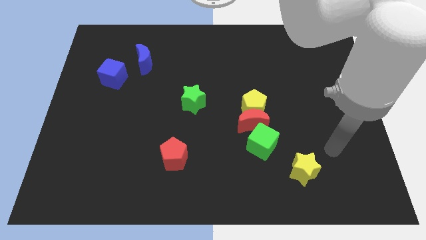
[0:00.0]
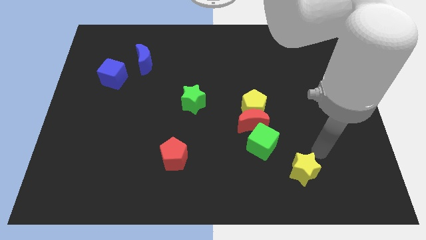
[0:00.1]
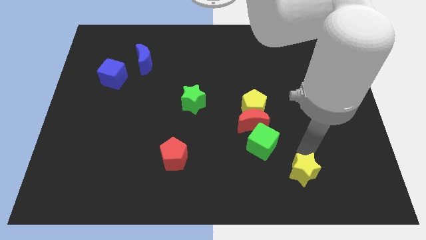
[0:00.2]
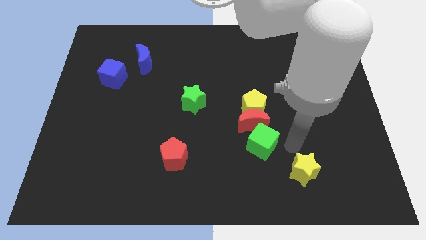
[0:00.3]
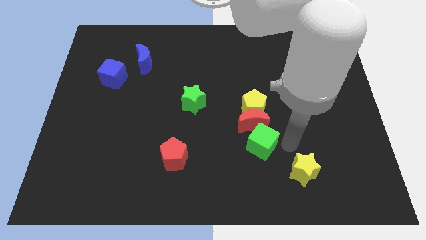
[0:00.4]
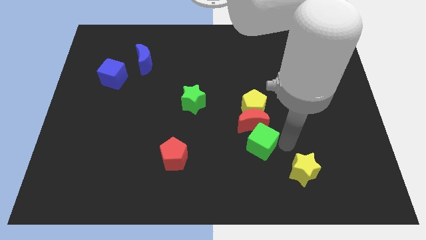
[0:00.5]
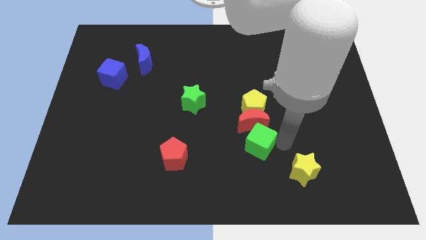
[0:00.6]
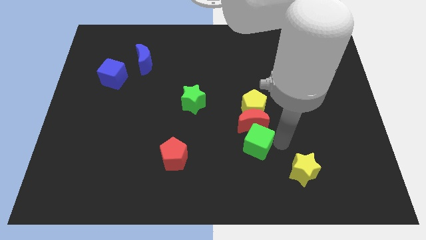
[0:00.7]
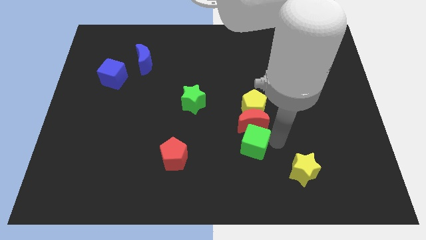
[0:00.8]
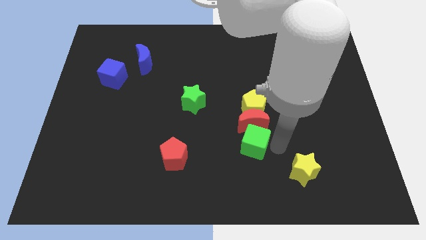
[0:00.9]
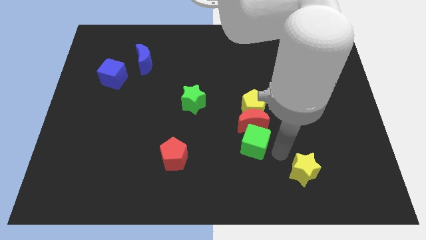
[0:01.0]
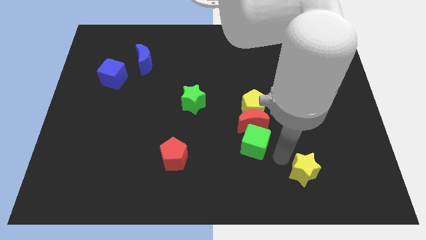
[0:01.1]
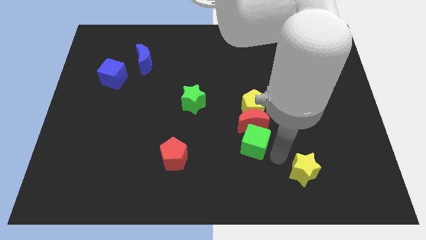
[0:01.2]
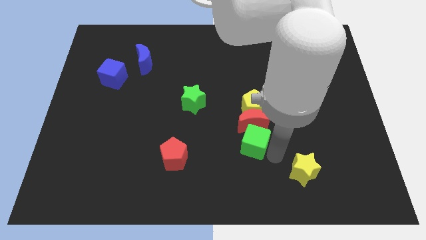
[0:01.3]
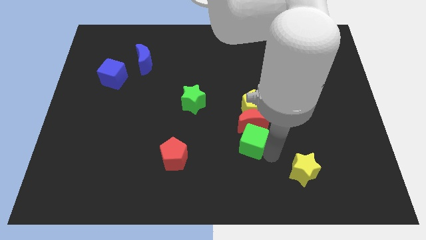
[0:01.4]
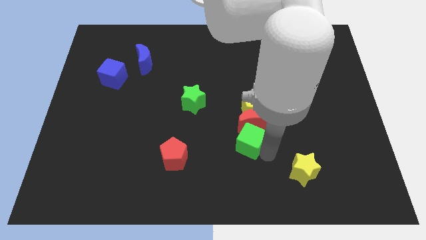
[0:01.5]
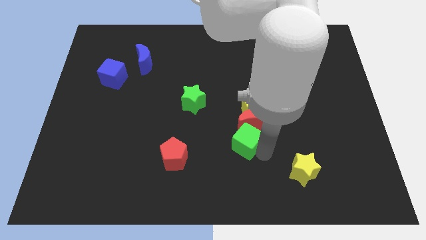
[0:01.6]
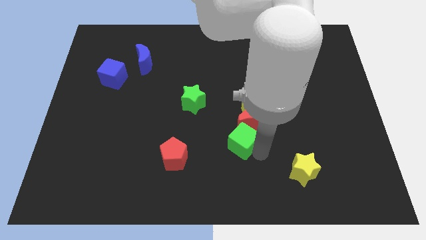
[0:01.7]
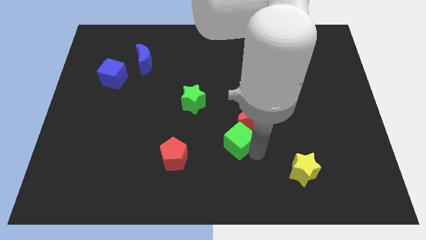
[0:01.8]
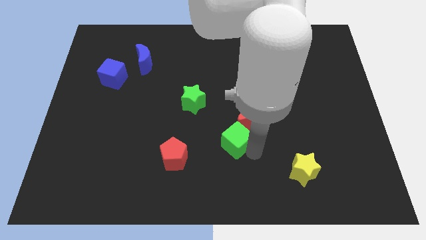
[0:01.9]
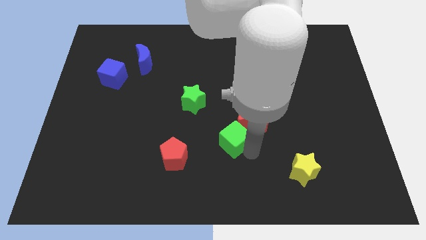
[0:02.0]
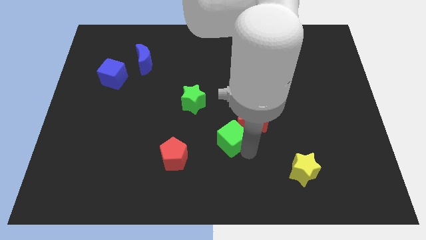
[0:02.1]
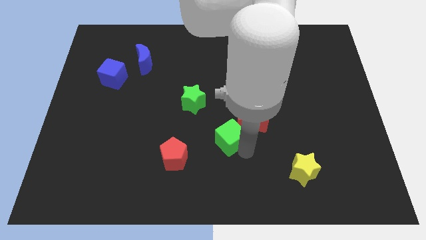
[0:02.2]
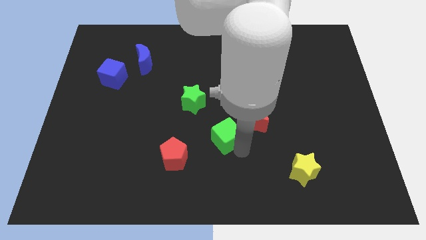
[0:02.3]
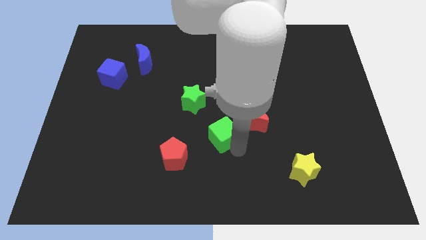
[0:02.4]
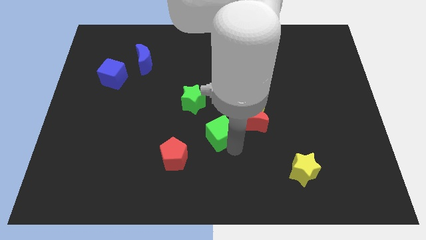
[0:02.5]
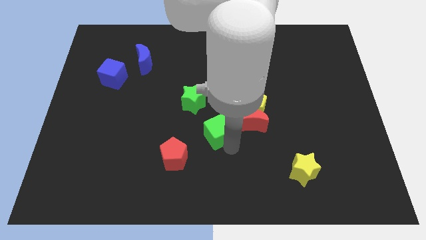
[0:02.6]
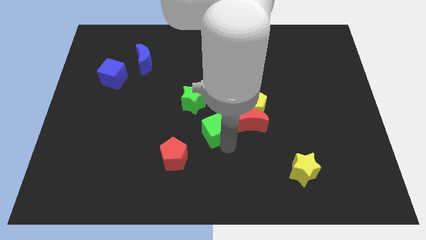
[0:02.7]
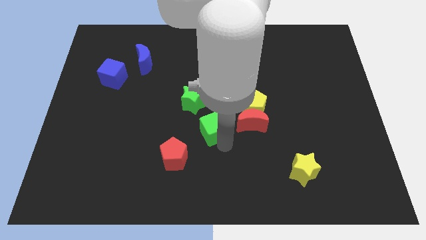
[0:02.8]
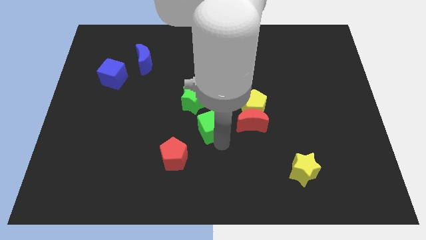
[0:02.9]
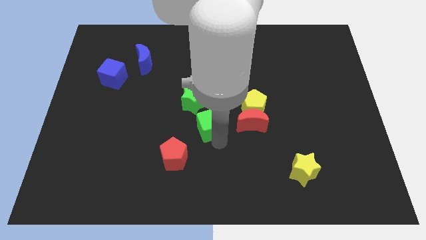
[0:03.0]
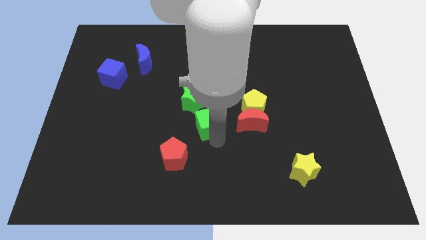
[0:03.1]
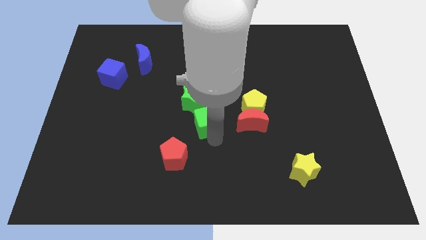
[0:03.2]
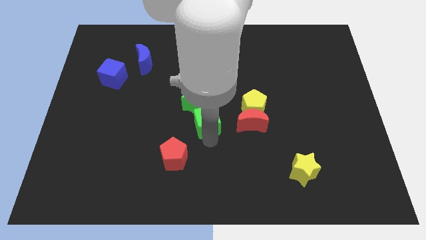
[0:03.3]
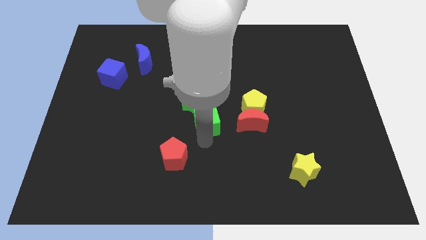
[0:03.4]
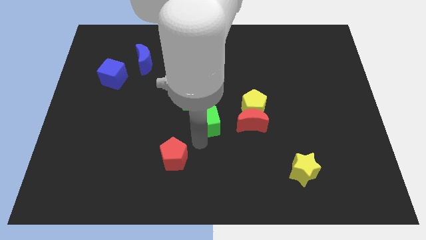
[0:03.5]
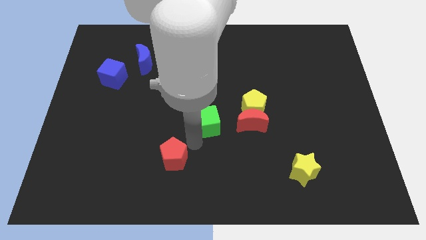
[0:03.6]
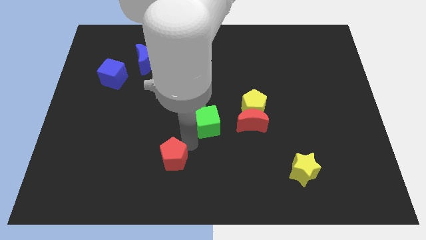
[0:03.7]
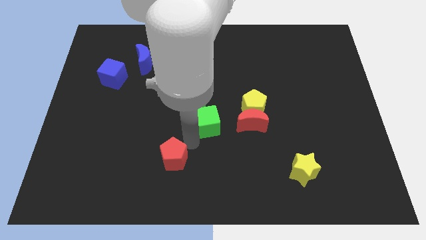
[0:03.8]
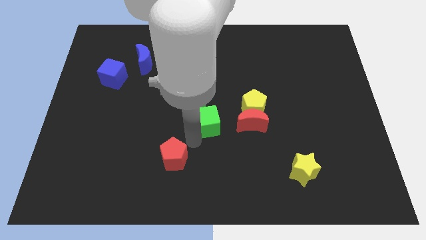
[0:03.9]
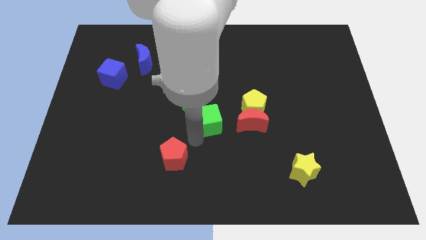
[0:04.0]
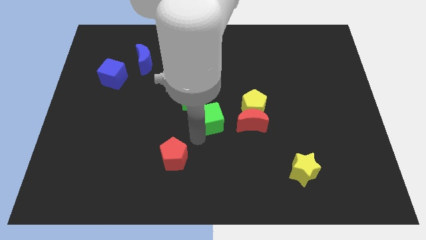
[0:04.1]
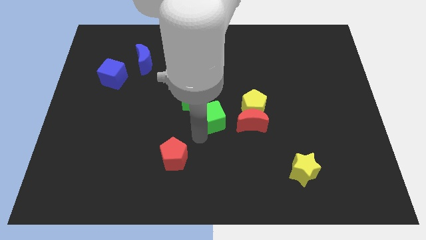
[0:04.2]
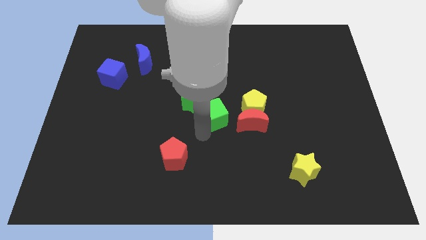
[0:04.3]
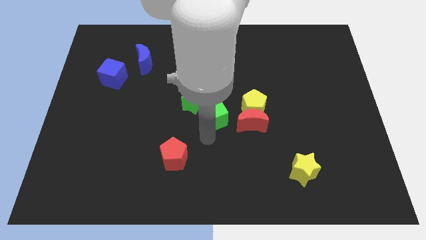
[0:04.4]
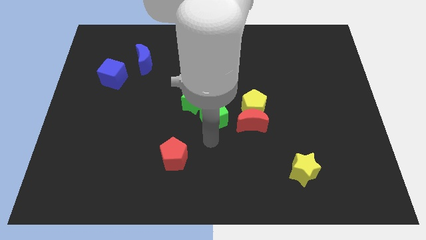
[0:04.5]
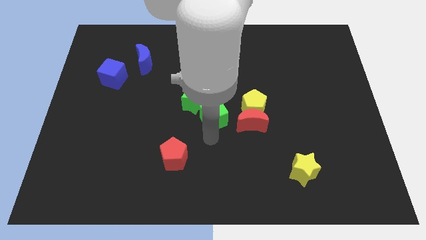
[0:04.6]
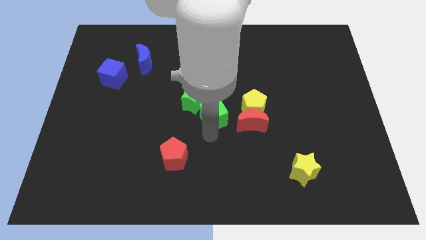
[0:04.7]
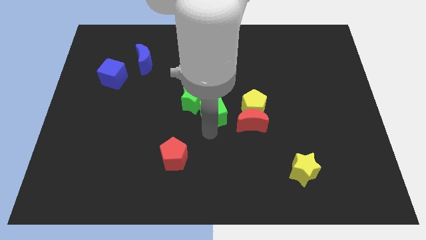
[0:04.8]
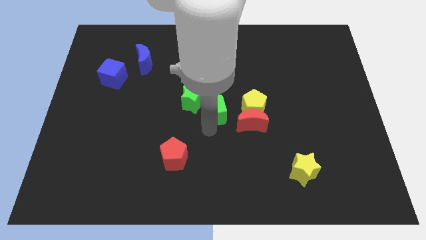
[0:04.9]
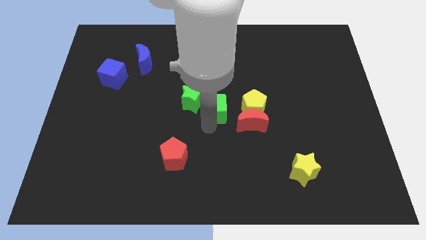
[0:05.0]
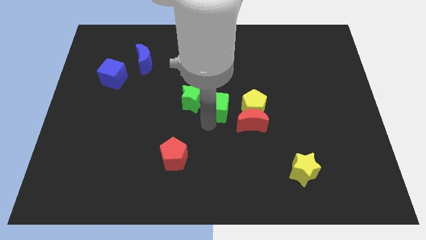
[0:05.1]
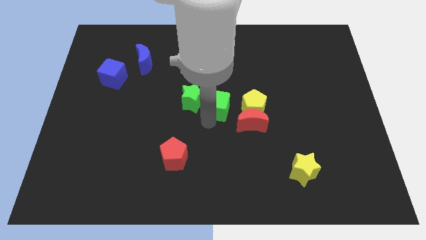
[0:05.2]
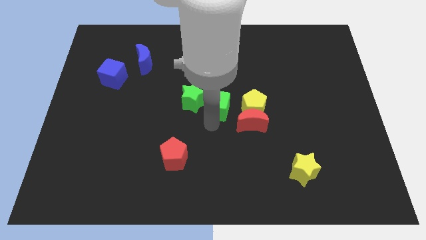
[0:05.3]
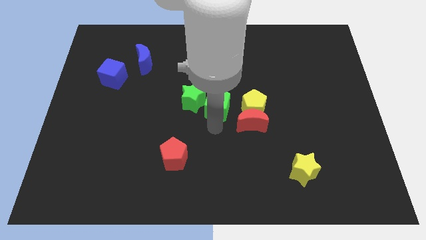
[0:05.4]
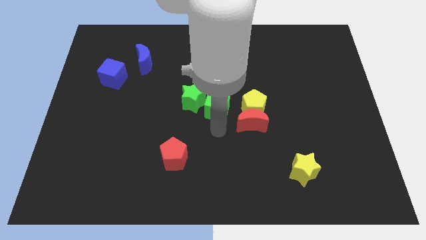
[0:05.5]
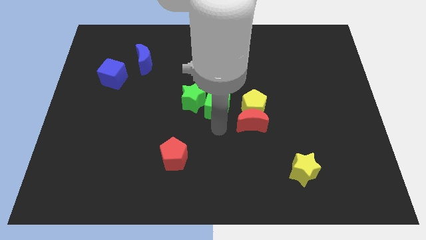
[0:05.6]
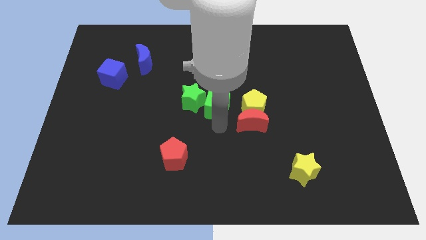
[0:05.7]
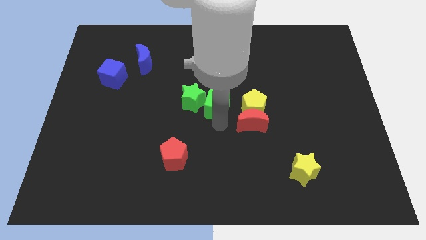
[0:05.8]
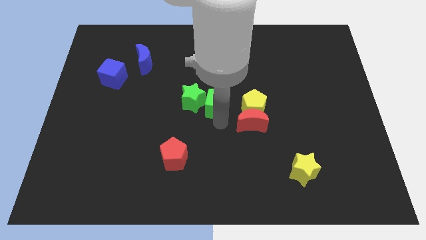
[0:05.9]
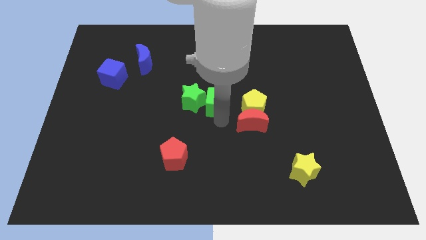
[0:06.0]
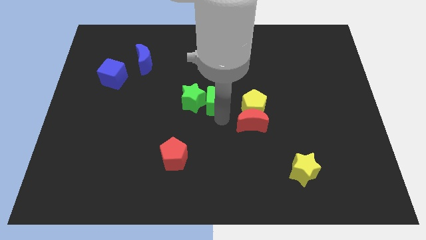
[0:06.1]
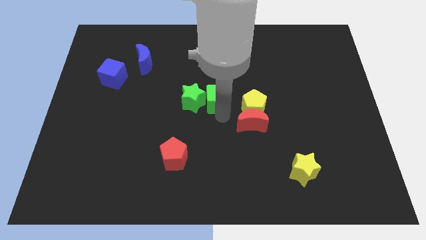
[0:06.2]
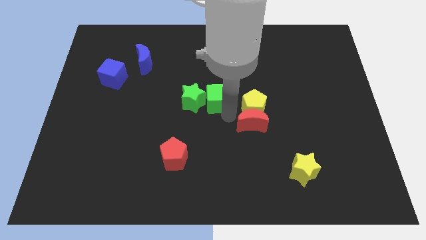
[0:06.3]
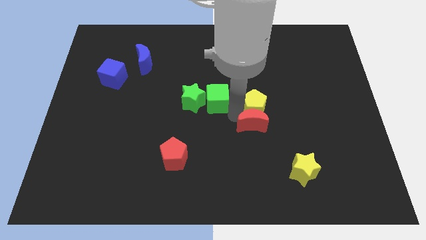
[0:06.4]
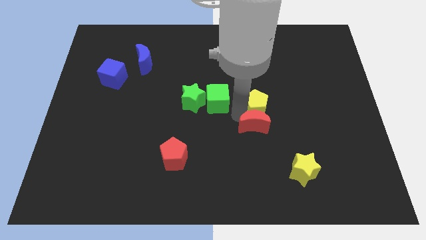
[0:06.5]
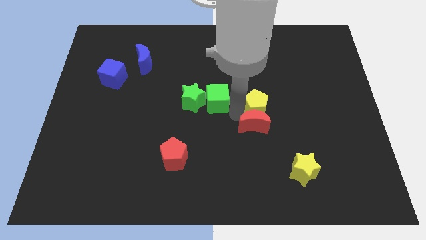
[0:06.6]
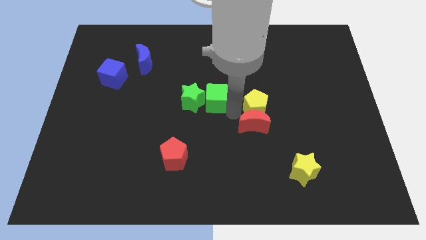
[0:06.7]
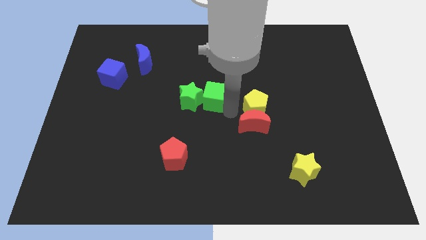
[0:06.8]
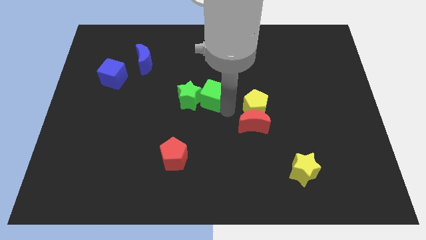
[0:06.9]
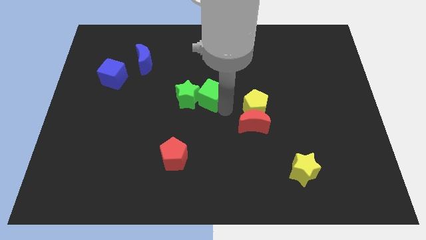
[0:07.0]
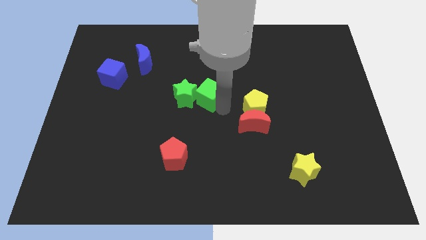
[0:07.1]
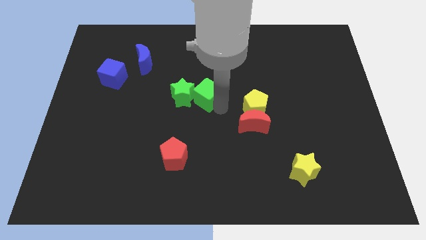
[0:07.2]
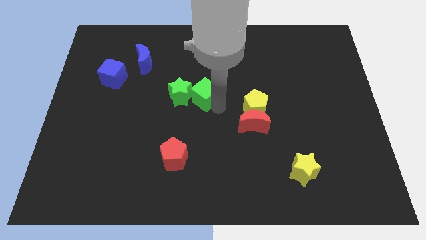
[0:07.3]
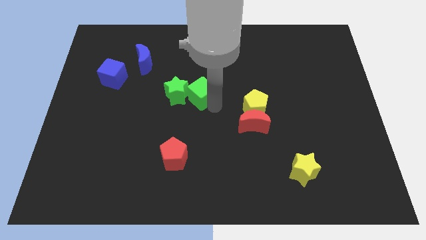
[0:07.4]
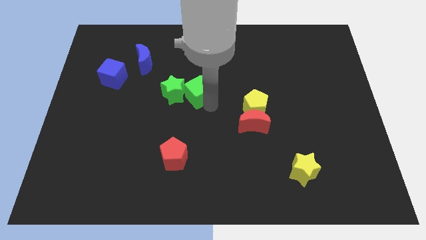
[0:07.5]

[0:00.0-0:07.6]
push the green cube up and to the left diagonally

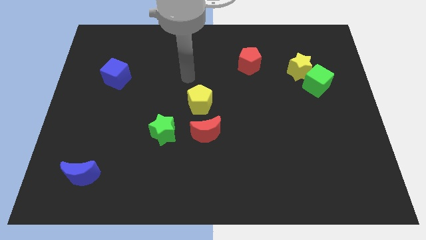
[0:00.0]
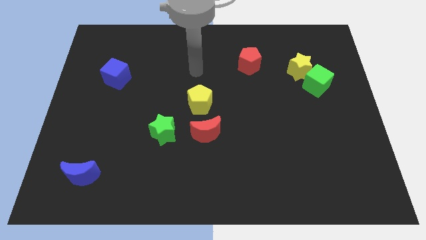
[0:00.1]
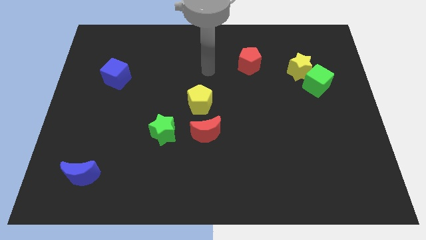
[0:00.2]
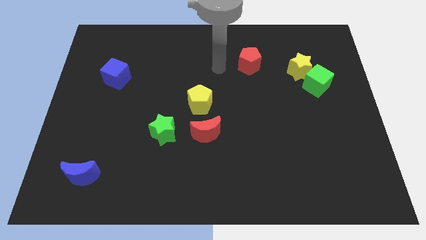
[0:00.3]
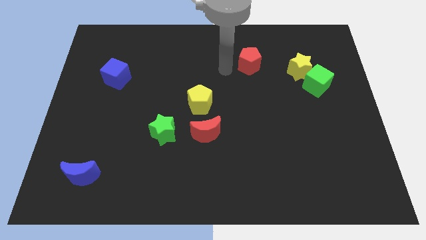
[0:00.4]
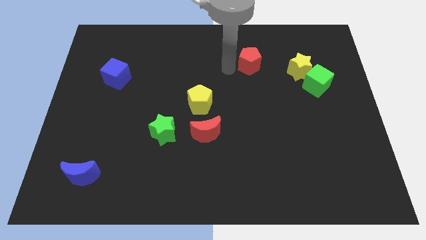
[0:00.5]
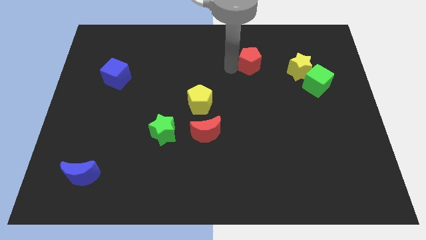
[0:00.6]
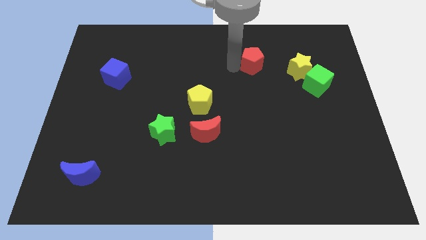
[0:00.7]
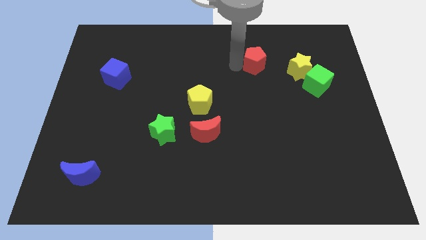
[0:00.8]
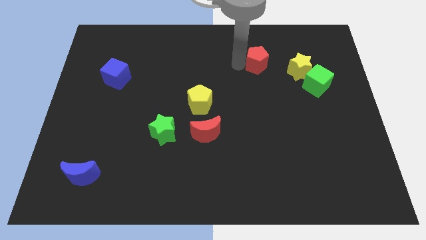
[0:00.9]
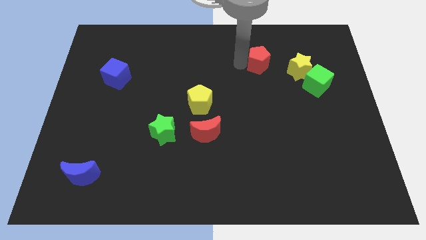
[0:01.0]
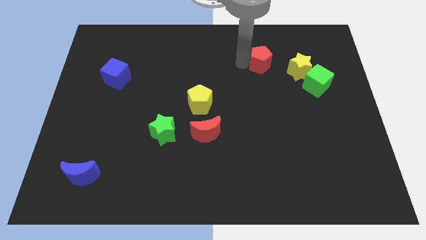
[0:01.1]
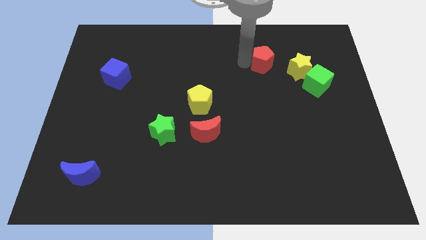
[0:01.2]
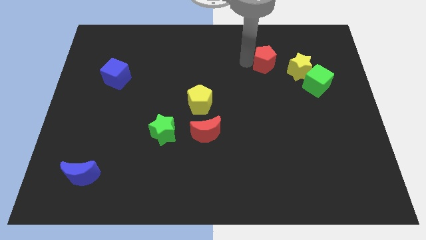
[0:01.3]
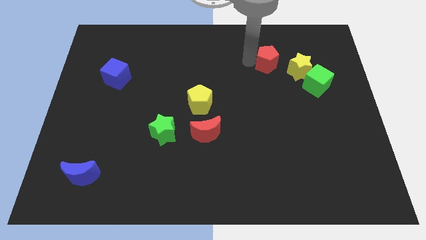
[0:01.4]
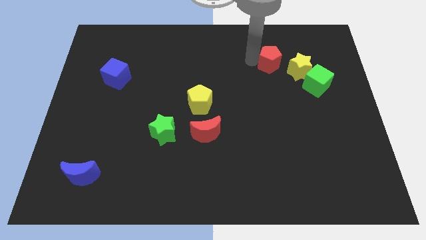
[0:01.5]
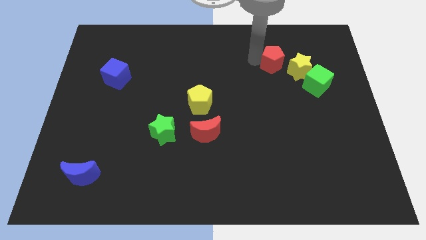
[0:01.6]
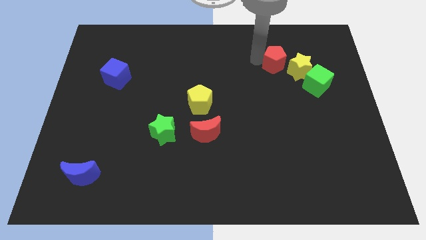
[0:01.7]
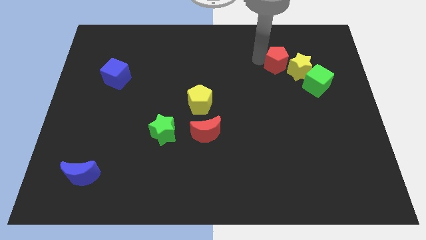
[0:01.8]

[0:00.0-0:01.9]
slightly move the red pentagon right
